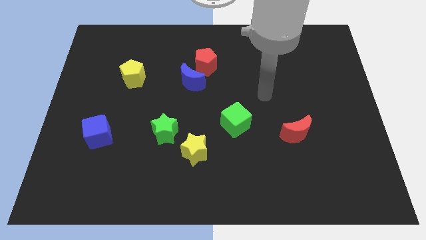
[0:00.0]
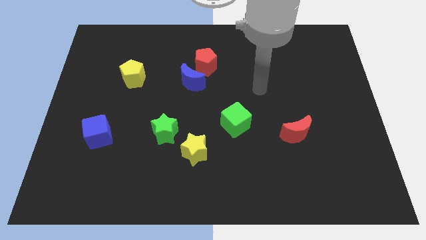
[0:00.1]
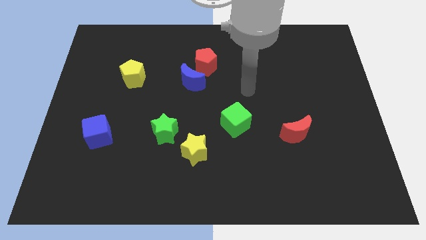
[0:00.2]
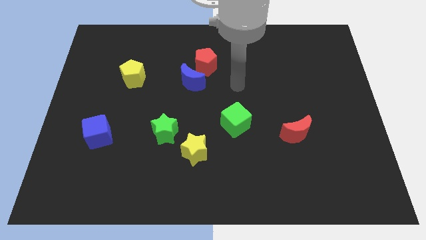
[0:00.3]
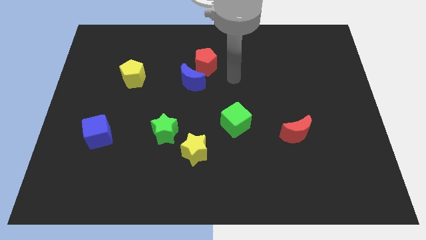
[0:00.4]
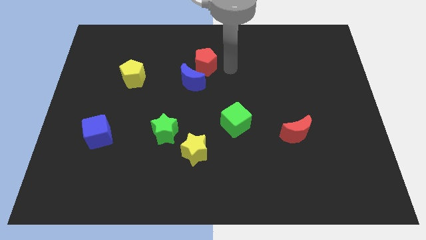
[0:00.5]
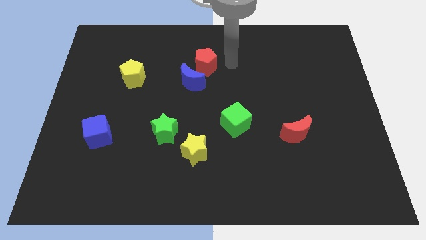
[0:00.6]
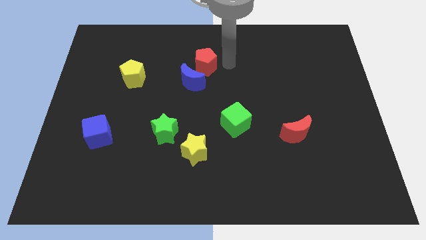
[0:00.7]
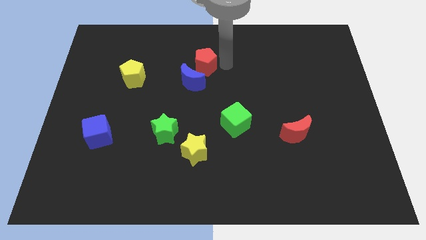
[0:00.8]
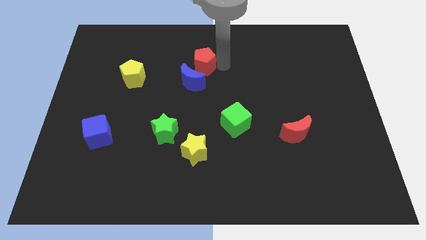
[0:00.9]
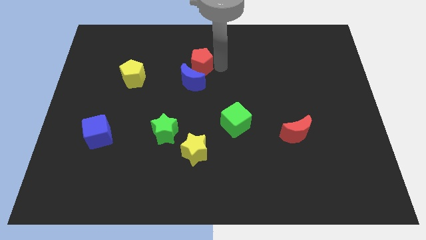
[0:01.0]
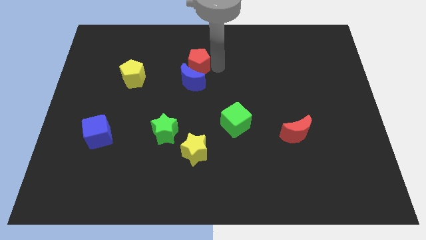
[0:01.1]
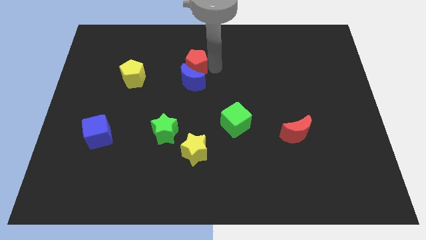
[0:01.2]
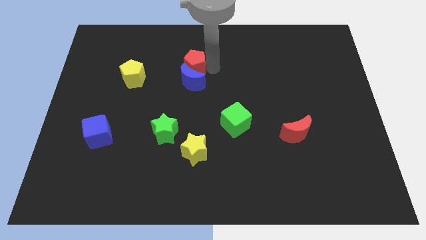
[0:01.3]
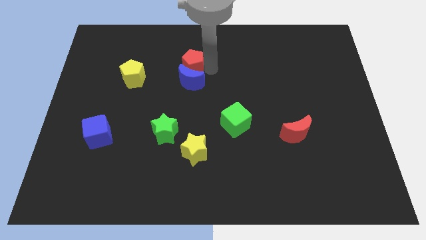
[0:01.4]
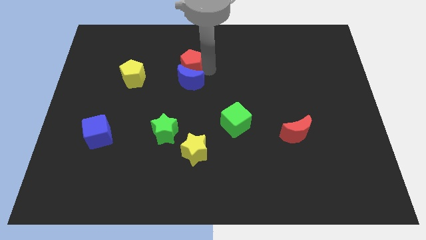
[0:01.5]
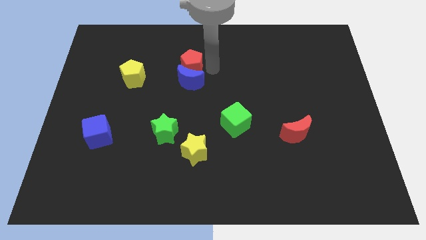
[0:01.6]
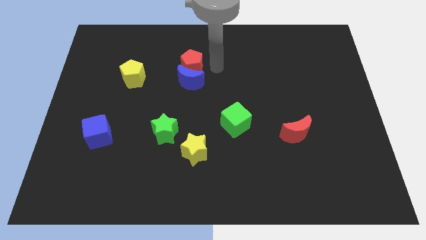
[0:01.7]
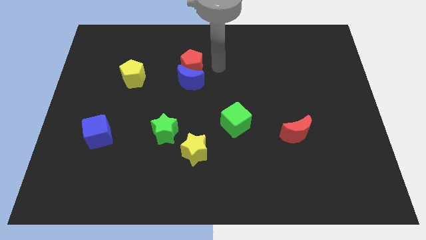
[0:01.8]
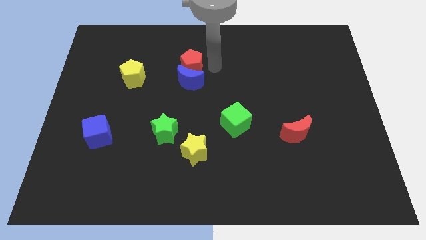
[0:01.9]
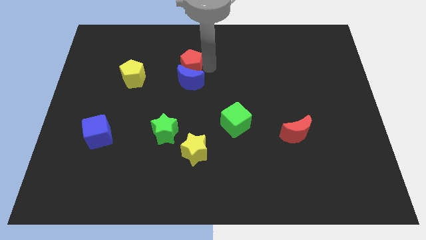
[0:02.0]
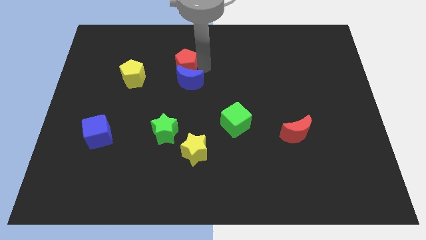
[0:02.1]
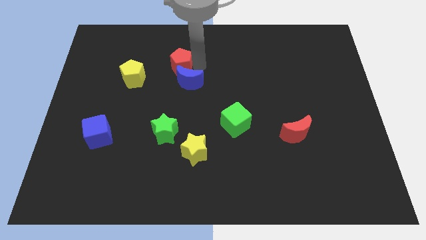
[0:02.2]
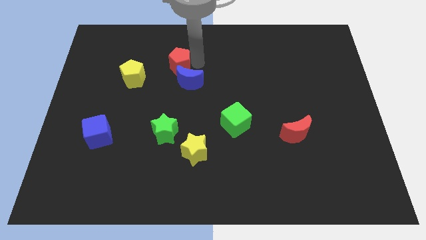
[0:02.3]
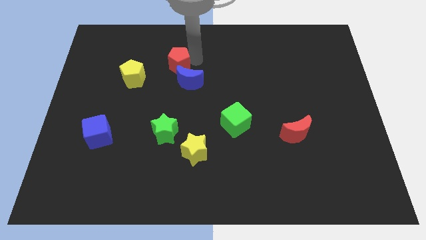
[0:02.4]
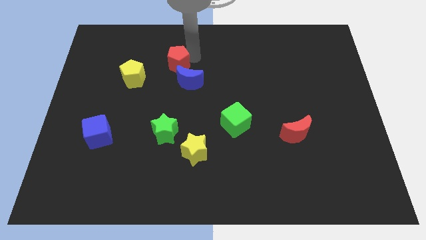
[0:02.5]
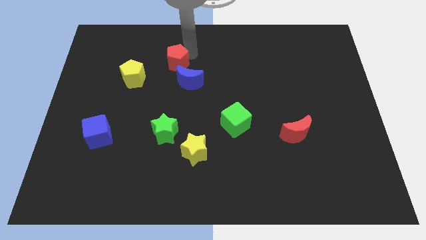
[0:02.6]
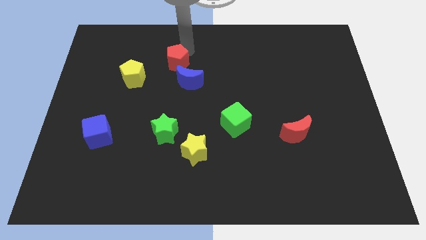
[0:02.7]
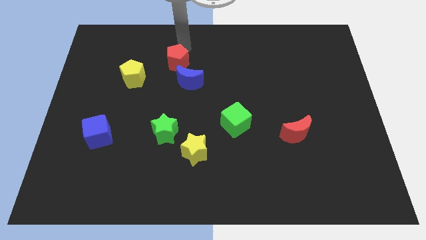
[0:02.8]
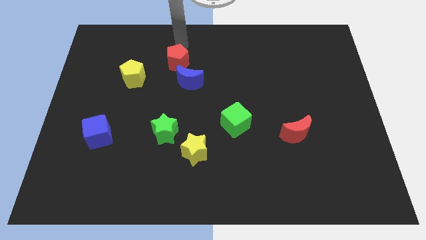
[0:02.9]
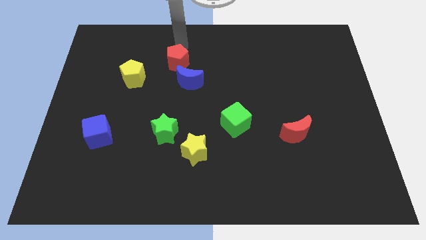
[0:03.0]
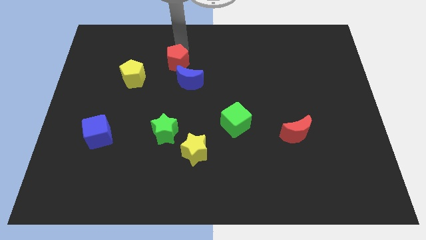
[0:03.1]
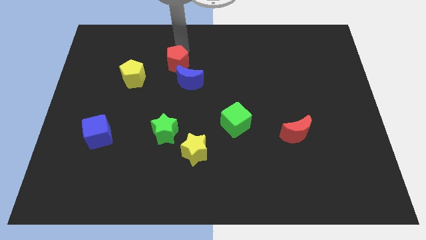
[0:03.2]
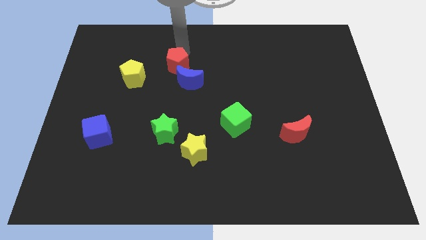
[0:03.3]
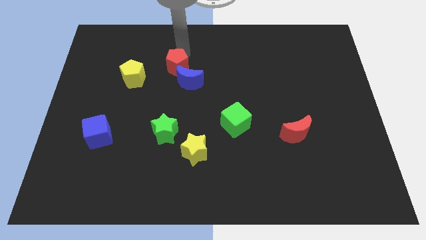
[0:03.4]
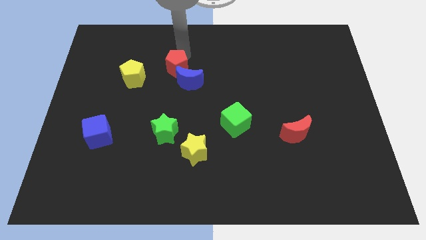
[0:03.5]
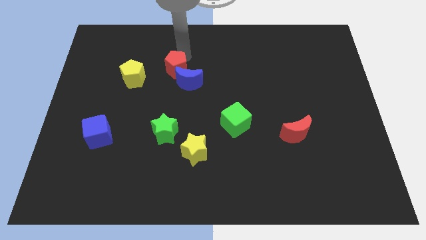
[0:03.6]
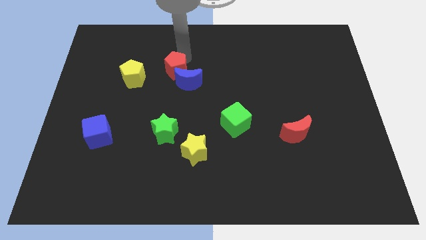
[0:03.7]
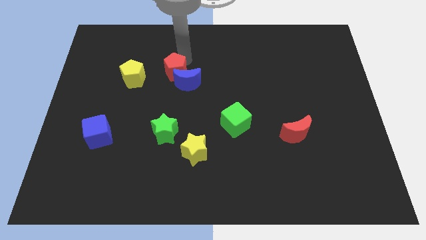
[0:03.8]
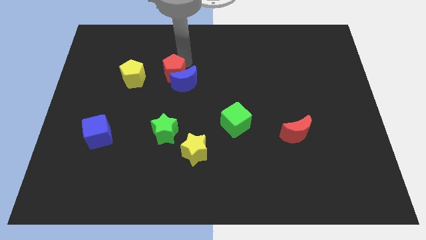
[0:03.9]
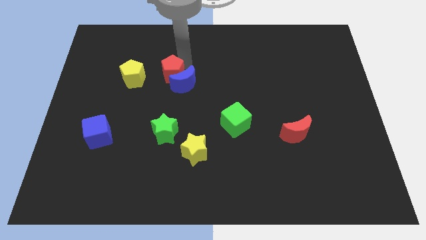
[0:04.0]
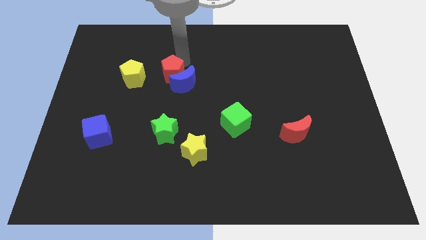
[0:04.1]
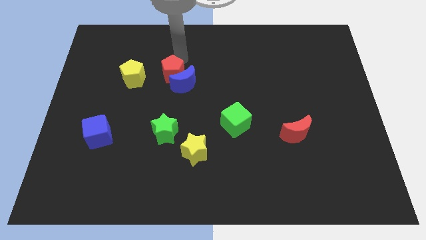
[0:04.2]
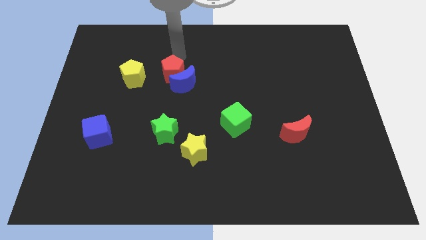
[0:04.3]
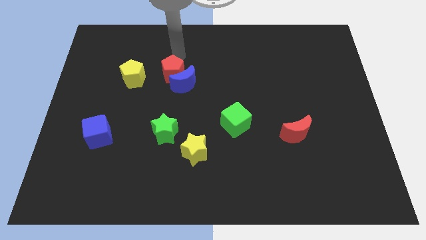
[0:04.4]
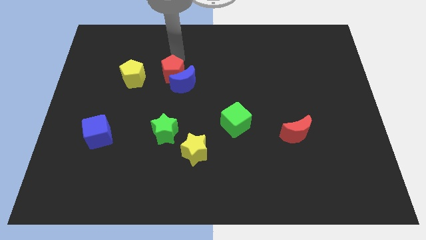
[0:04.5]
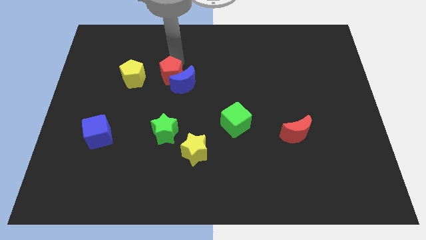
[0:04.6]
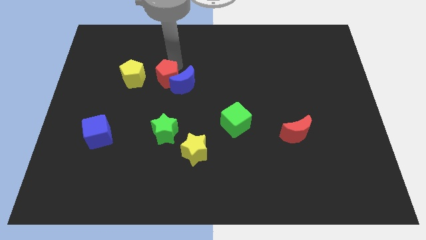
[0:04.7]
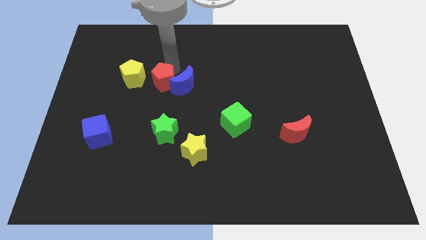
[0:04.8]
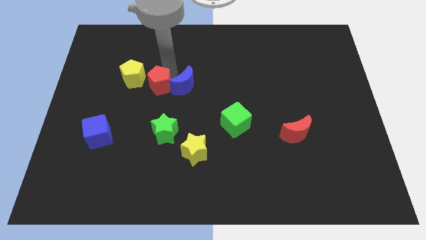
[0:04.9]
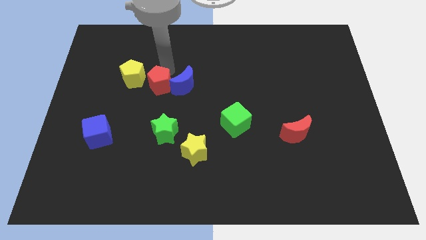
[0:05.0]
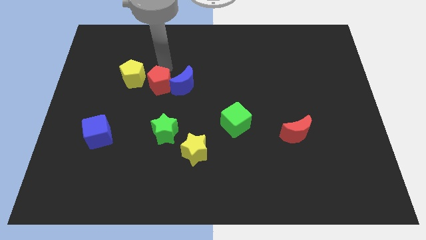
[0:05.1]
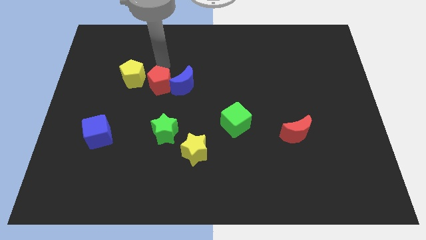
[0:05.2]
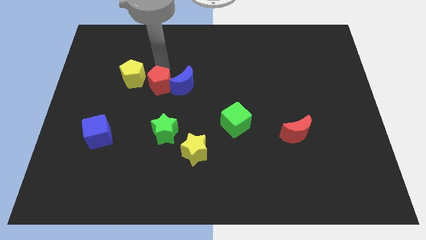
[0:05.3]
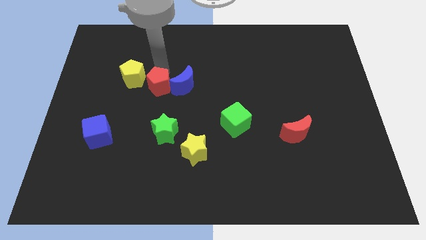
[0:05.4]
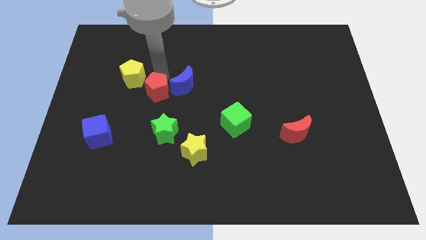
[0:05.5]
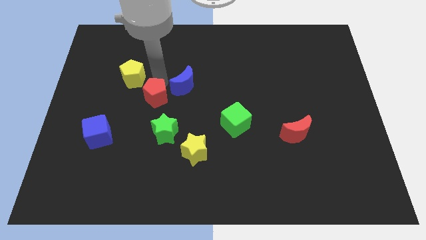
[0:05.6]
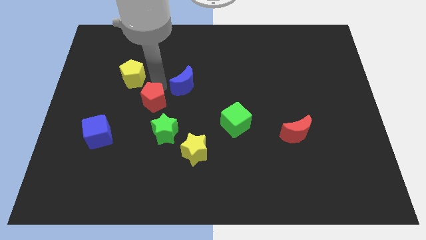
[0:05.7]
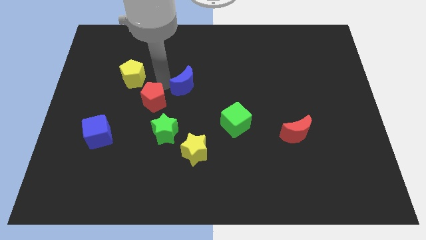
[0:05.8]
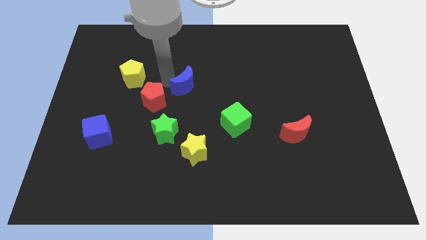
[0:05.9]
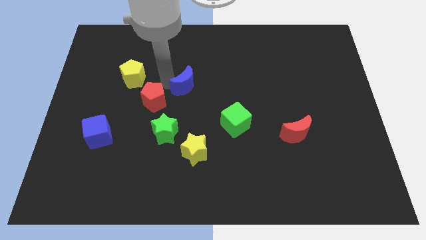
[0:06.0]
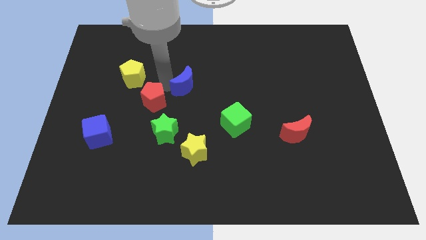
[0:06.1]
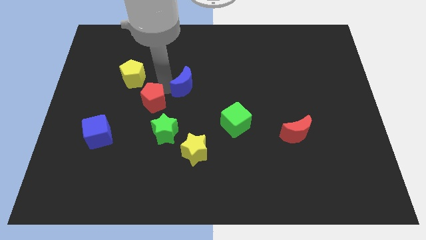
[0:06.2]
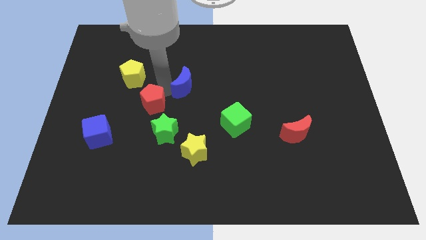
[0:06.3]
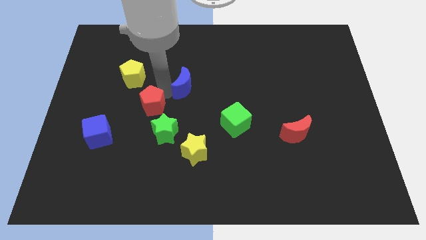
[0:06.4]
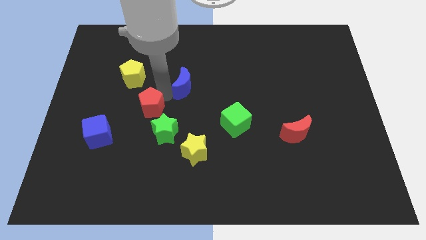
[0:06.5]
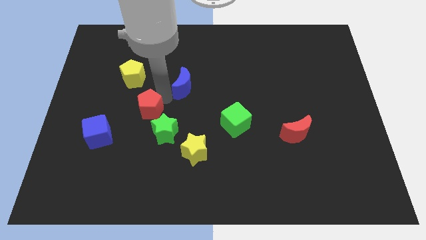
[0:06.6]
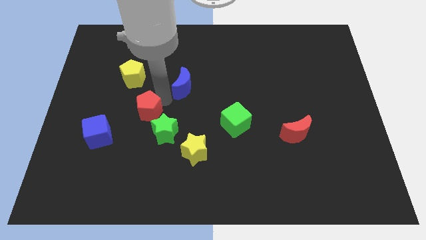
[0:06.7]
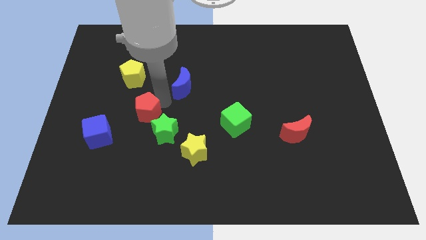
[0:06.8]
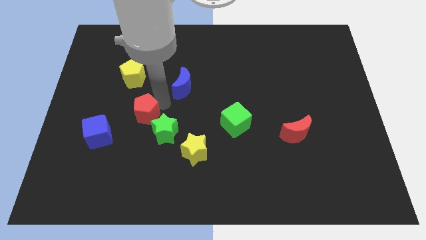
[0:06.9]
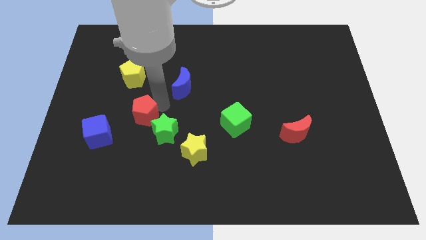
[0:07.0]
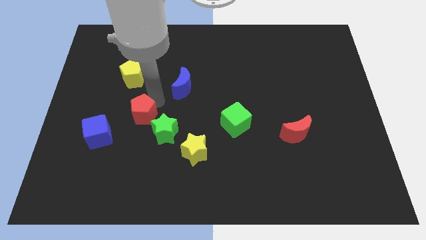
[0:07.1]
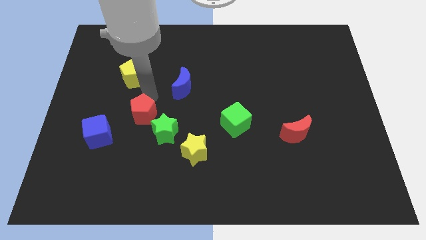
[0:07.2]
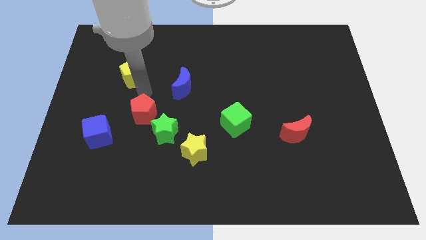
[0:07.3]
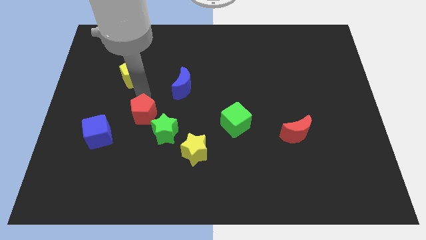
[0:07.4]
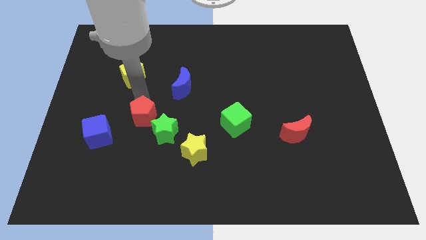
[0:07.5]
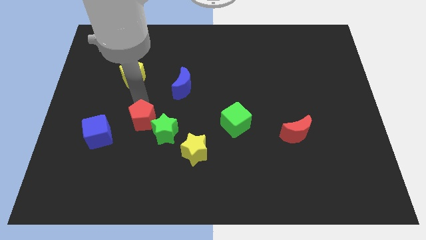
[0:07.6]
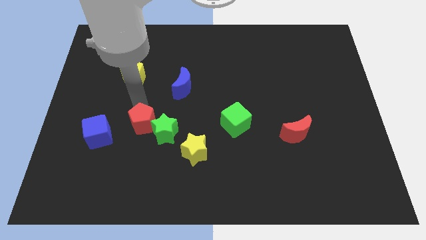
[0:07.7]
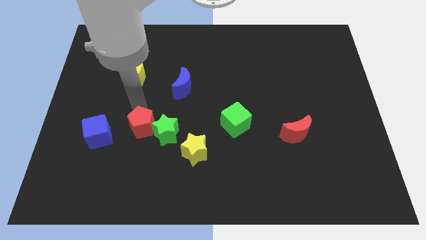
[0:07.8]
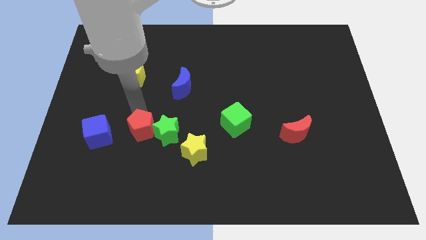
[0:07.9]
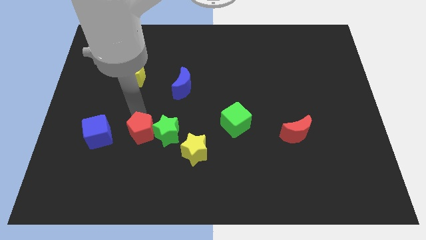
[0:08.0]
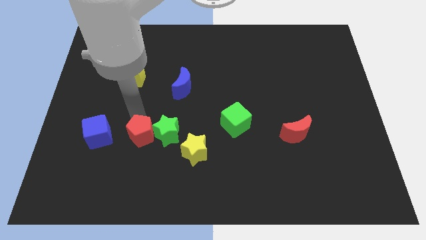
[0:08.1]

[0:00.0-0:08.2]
move the red pentagon to the left side of the yellow star
